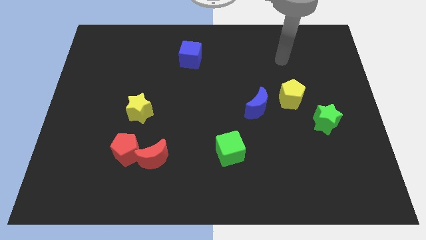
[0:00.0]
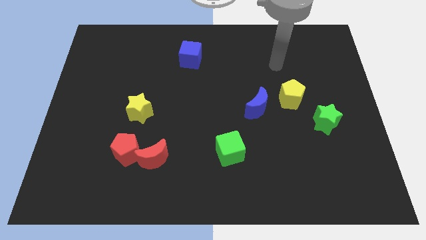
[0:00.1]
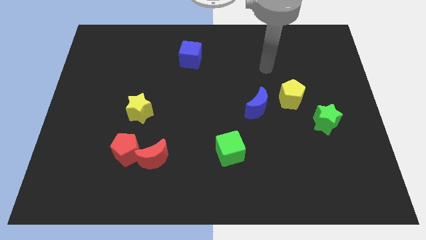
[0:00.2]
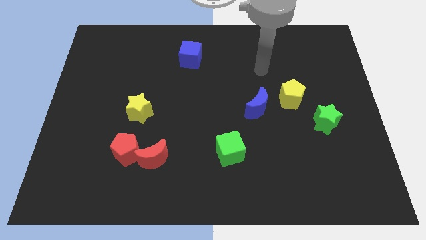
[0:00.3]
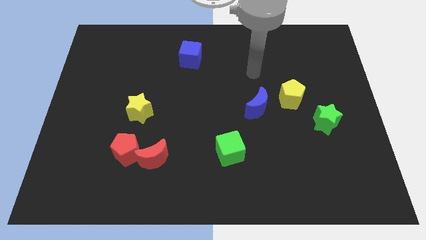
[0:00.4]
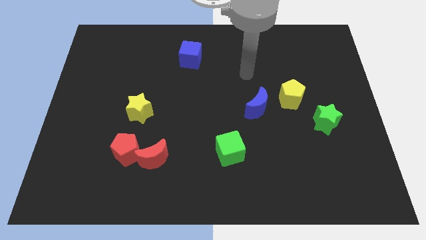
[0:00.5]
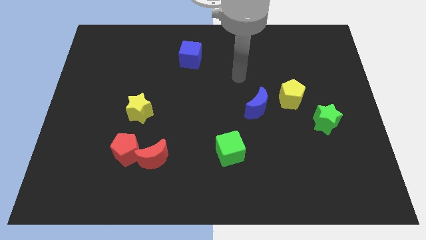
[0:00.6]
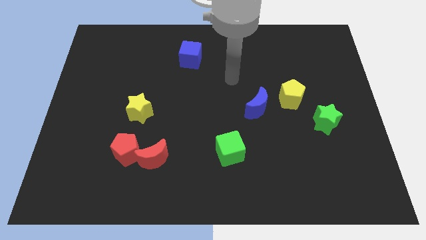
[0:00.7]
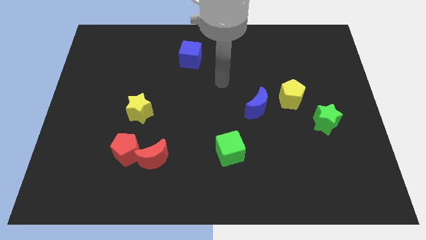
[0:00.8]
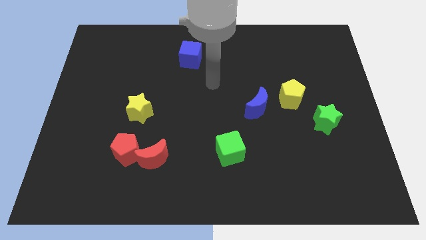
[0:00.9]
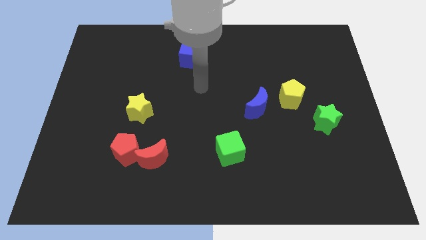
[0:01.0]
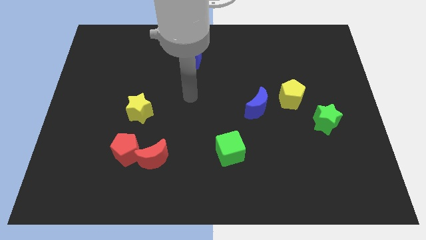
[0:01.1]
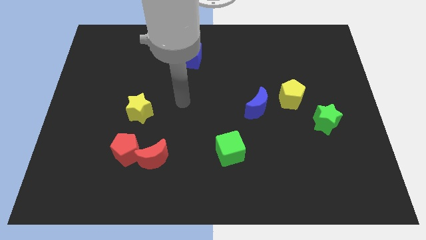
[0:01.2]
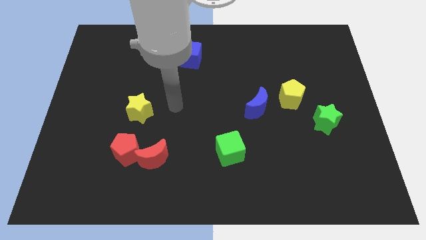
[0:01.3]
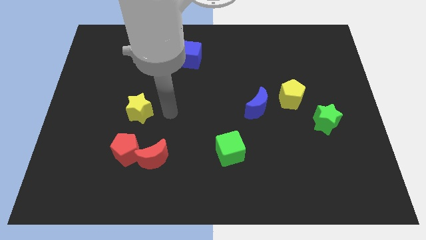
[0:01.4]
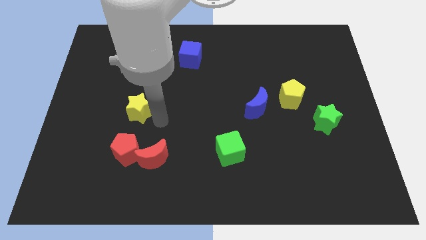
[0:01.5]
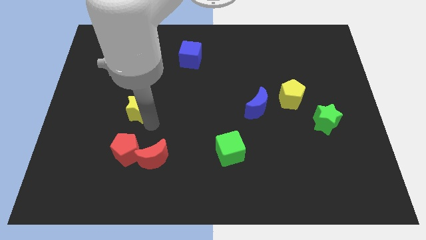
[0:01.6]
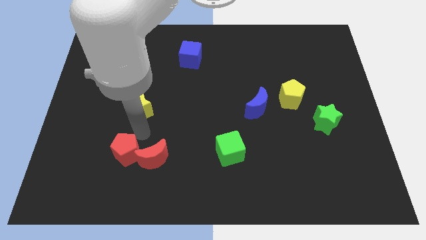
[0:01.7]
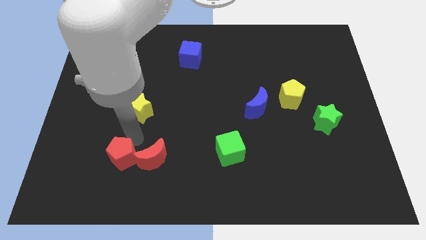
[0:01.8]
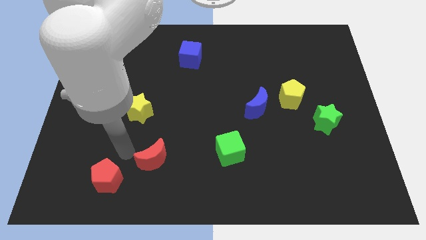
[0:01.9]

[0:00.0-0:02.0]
move the red moon away from the red pentagon

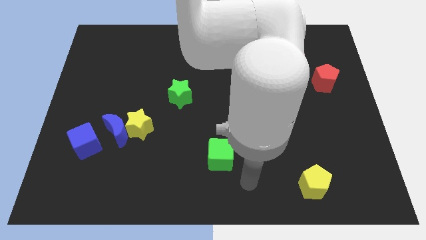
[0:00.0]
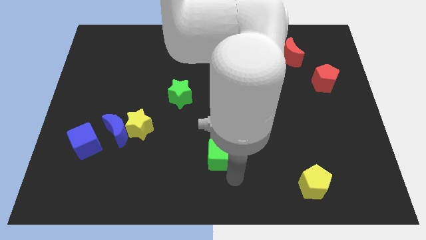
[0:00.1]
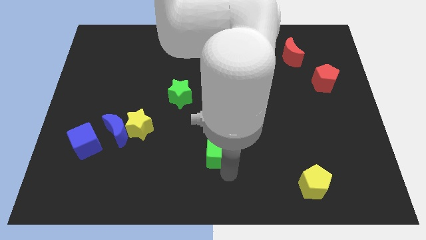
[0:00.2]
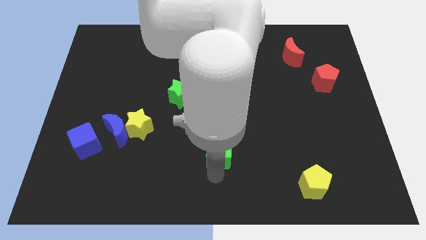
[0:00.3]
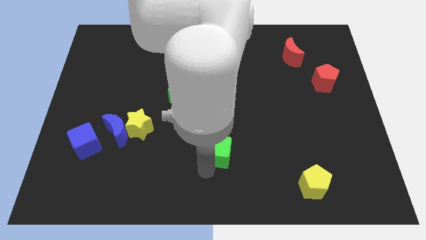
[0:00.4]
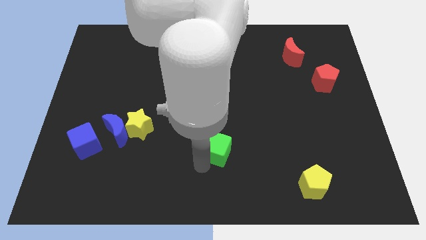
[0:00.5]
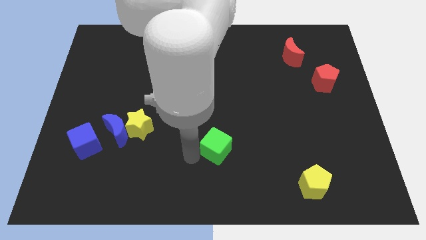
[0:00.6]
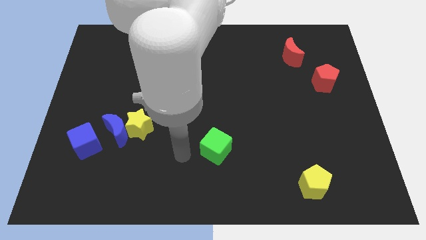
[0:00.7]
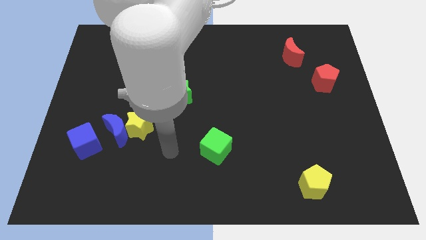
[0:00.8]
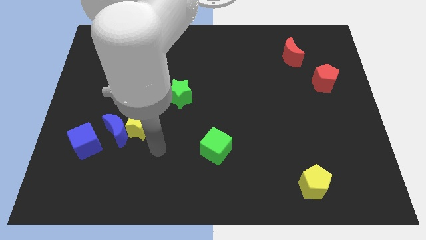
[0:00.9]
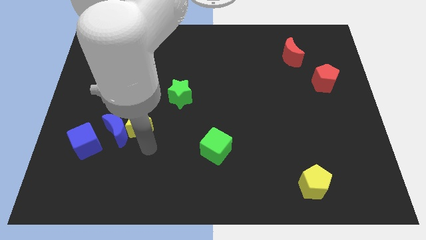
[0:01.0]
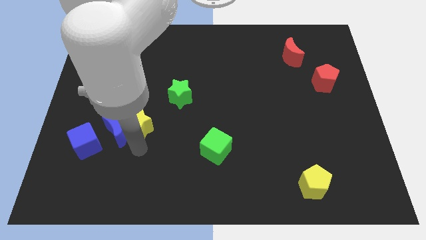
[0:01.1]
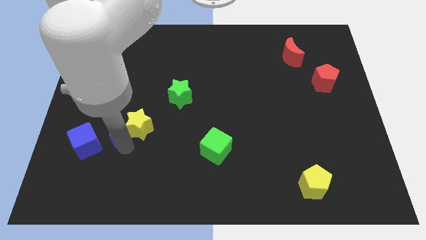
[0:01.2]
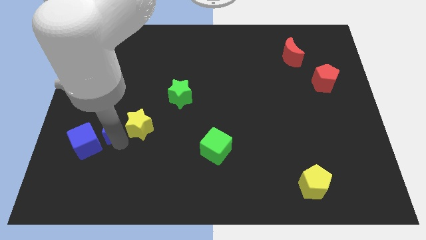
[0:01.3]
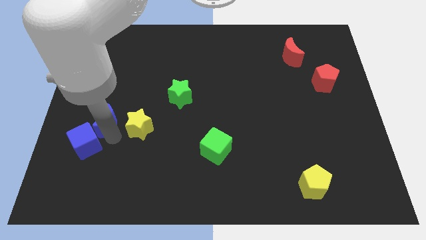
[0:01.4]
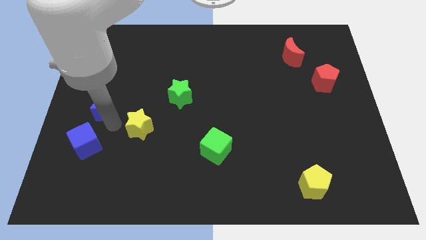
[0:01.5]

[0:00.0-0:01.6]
move the yellow star away from the blue moon

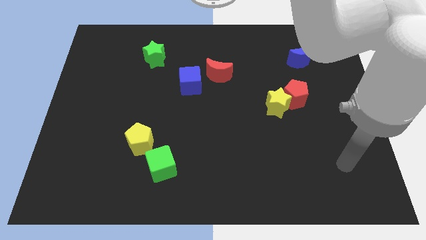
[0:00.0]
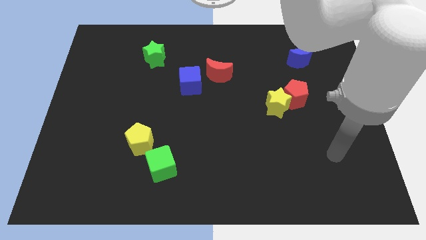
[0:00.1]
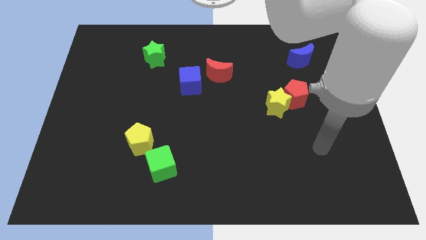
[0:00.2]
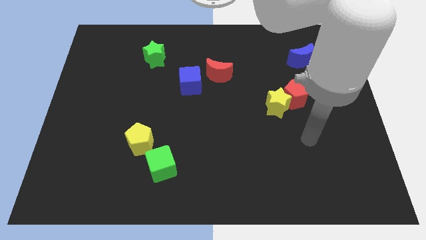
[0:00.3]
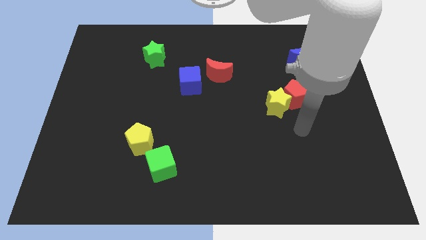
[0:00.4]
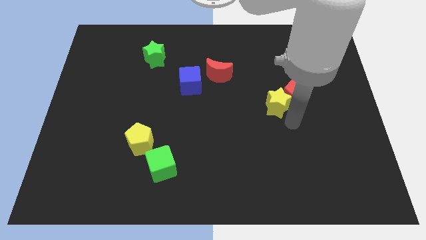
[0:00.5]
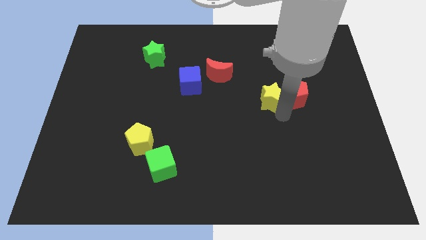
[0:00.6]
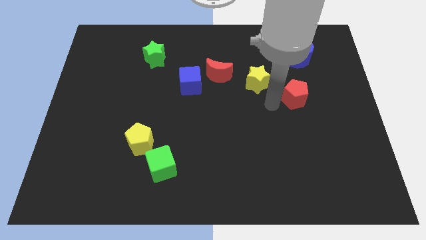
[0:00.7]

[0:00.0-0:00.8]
pull the red pentagon apart from the yellow star

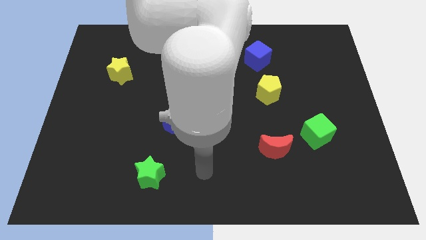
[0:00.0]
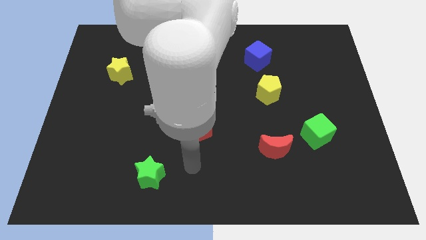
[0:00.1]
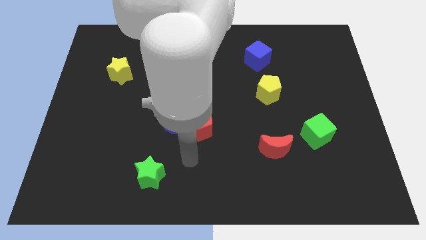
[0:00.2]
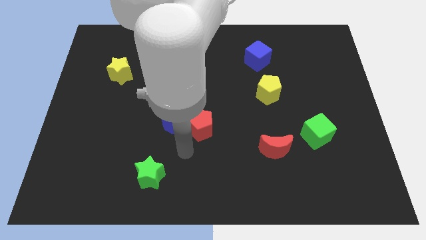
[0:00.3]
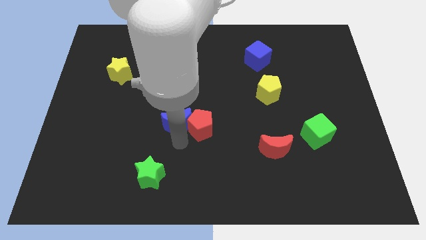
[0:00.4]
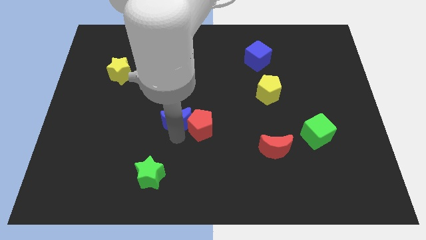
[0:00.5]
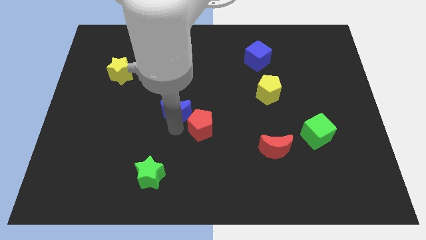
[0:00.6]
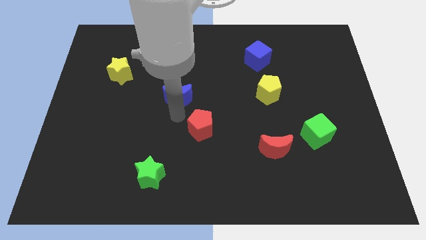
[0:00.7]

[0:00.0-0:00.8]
separate the red pentagon from the blue moon

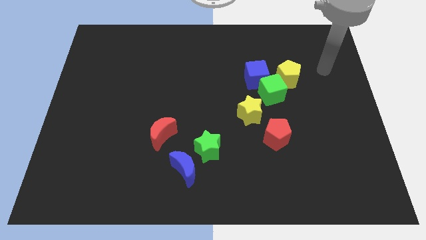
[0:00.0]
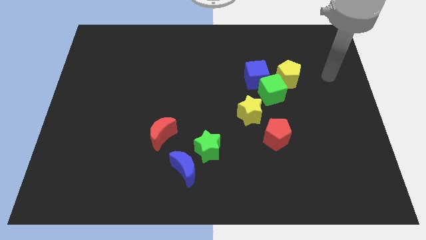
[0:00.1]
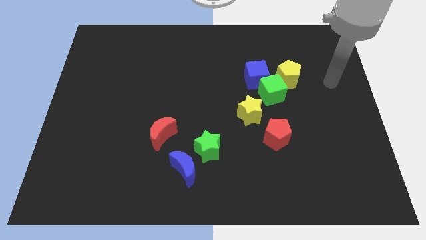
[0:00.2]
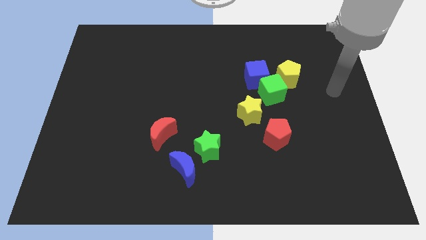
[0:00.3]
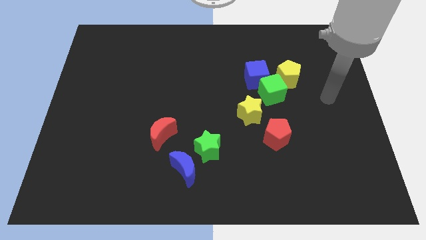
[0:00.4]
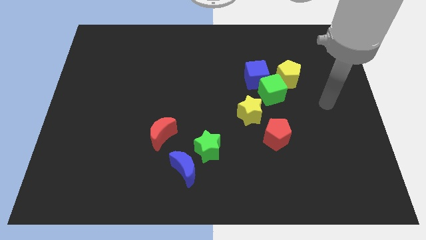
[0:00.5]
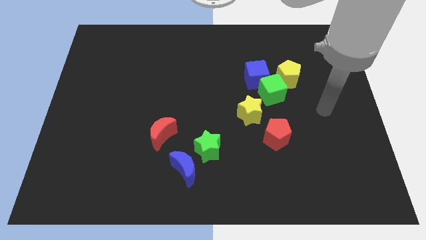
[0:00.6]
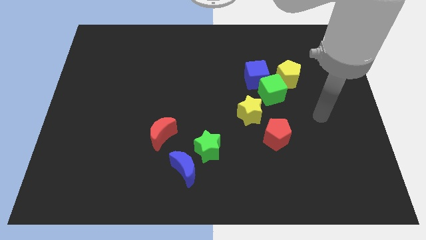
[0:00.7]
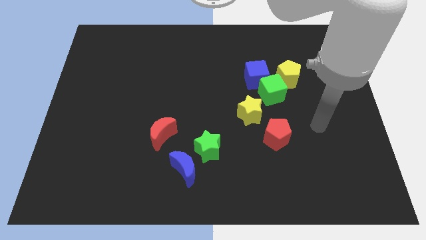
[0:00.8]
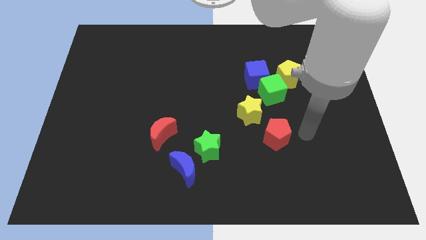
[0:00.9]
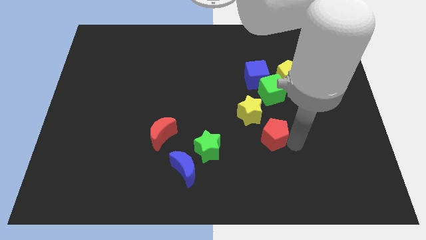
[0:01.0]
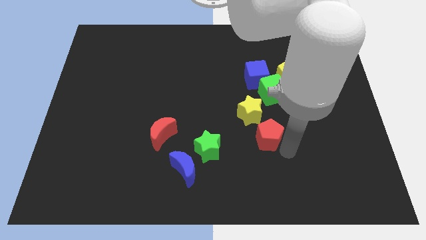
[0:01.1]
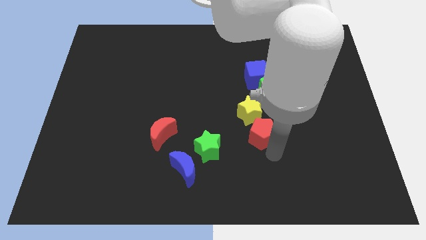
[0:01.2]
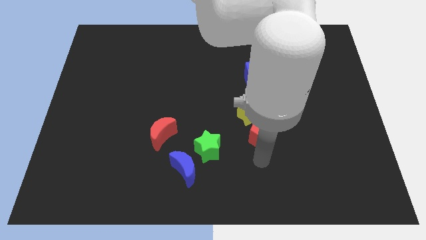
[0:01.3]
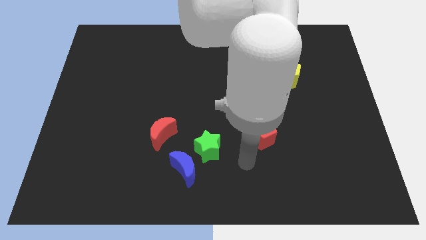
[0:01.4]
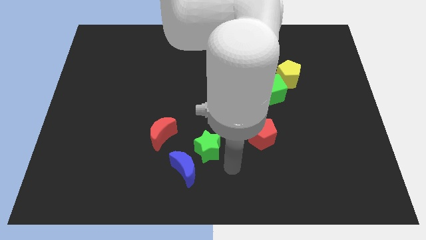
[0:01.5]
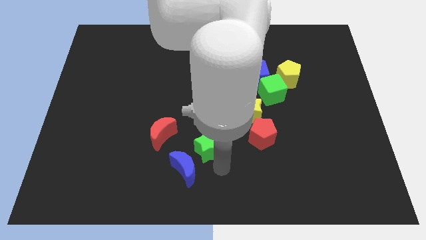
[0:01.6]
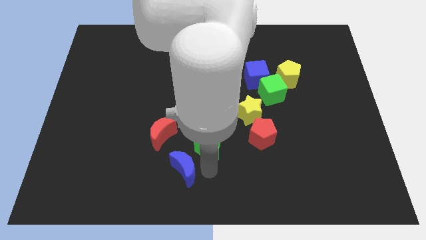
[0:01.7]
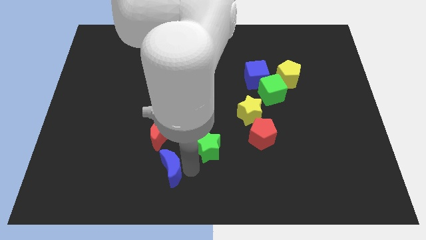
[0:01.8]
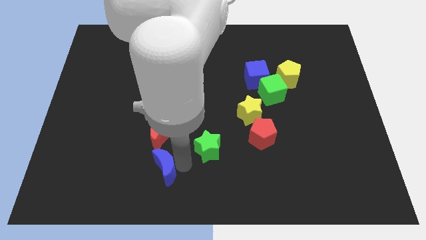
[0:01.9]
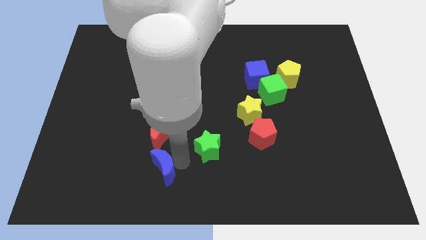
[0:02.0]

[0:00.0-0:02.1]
pull the green star apart from the blue moon

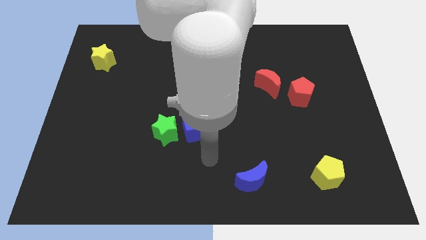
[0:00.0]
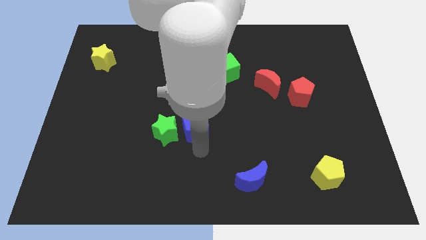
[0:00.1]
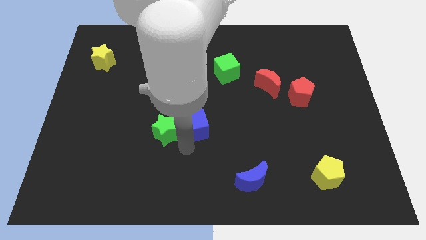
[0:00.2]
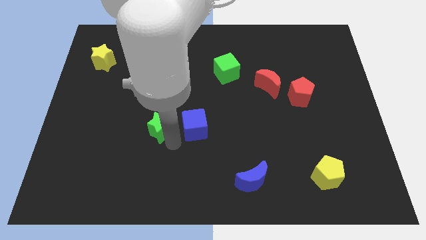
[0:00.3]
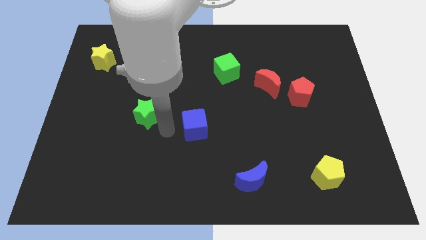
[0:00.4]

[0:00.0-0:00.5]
move the blue cube away from the green star

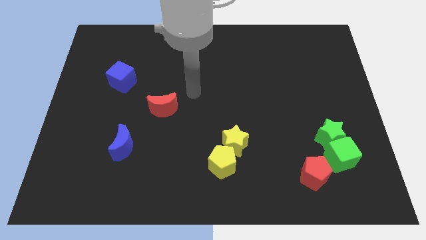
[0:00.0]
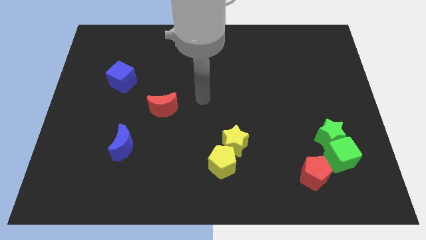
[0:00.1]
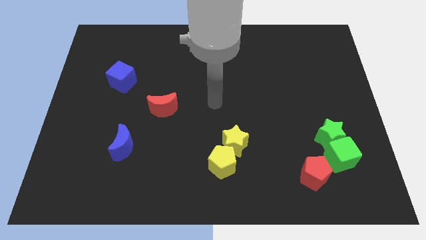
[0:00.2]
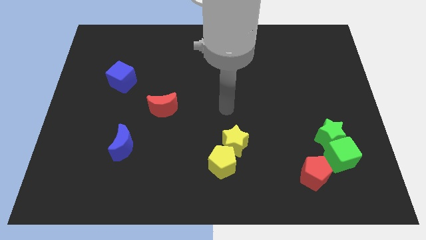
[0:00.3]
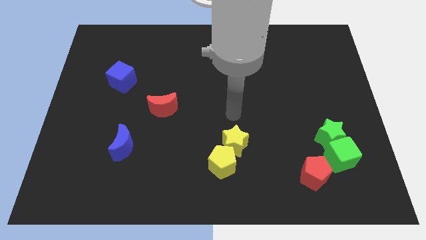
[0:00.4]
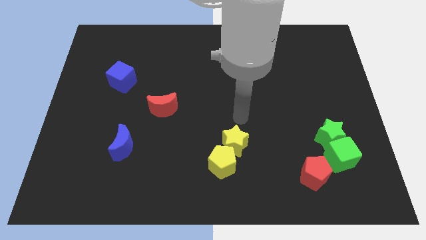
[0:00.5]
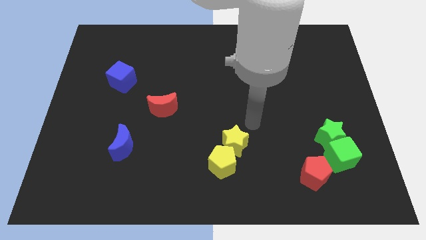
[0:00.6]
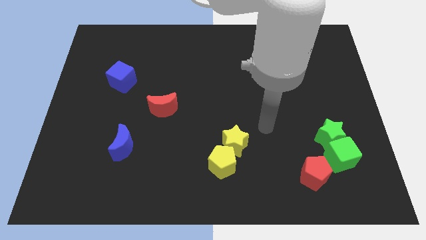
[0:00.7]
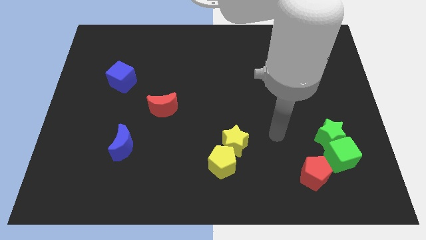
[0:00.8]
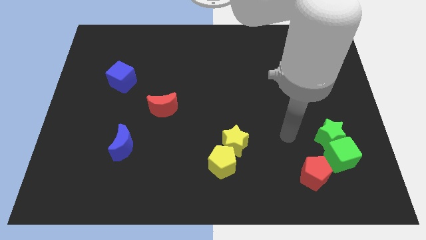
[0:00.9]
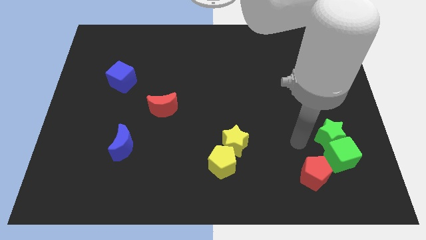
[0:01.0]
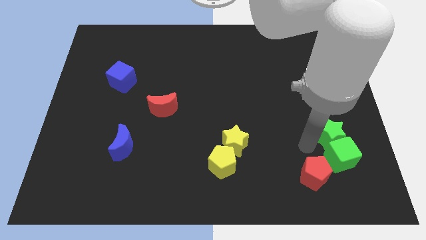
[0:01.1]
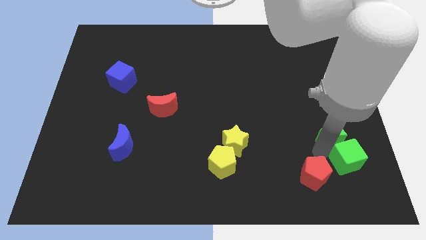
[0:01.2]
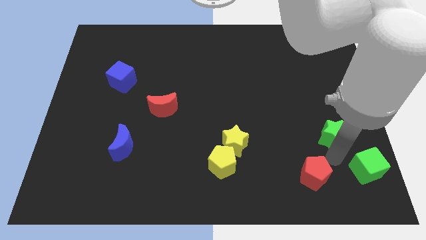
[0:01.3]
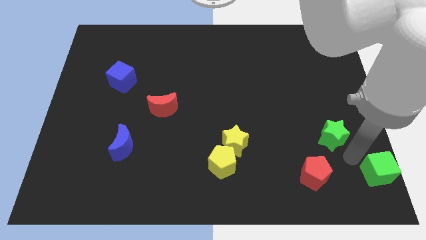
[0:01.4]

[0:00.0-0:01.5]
move the green star away from the green cube
